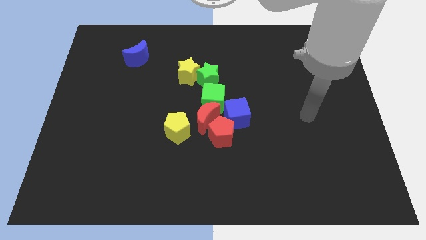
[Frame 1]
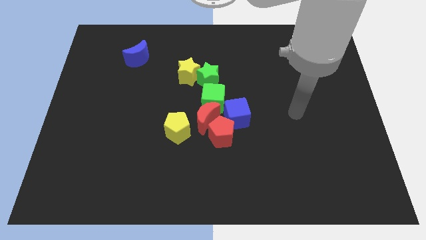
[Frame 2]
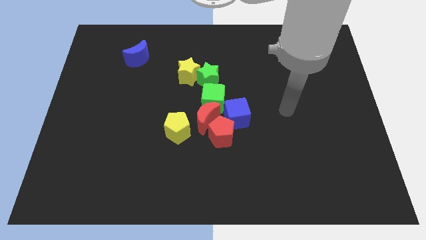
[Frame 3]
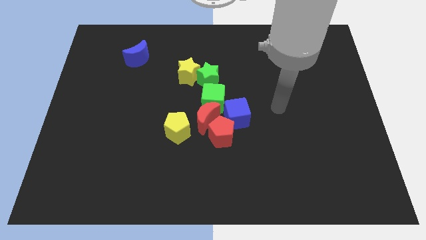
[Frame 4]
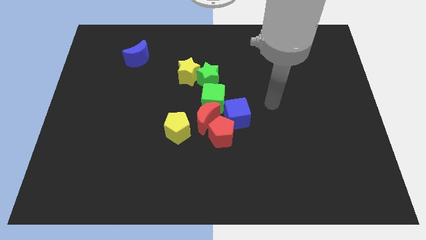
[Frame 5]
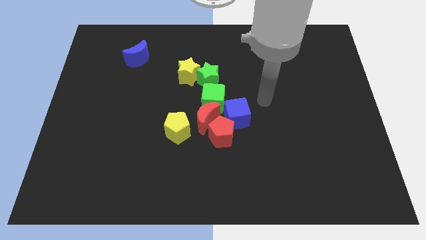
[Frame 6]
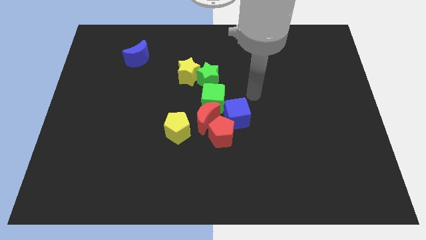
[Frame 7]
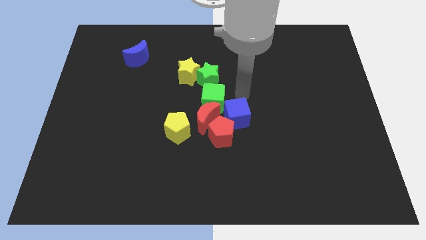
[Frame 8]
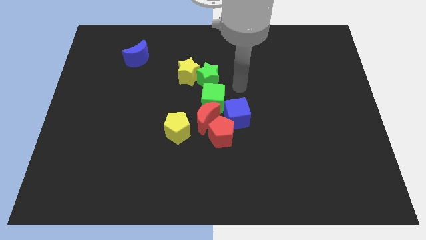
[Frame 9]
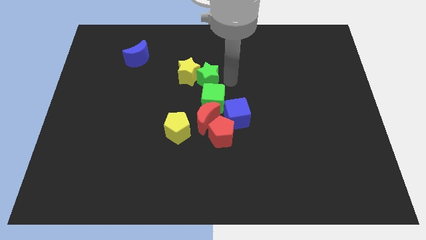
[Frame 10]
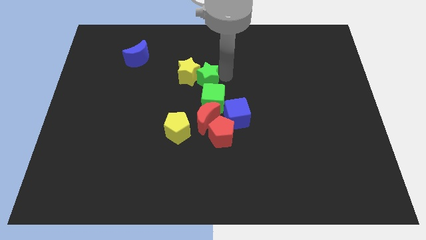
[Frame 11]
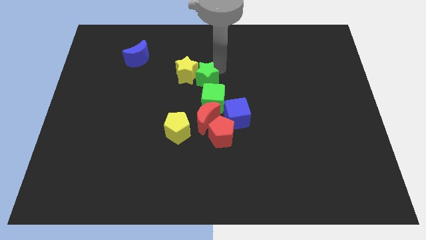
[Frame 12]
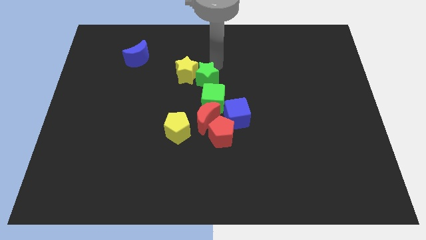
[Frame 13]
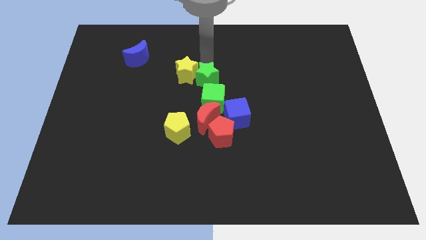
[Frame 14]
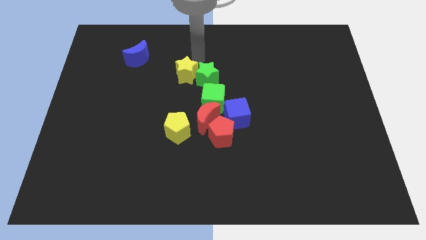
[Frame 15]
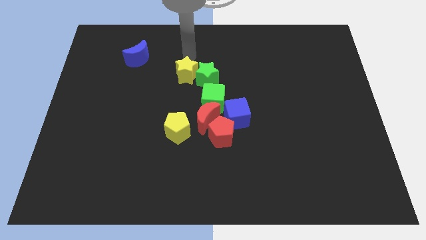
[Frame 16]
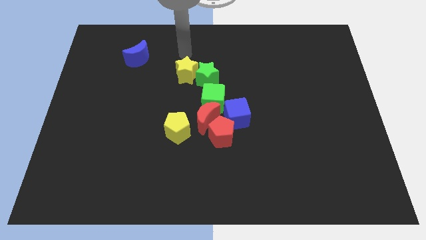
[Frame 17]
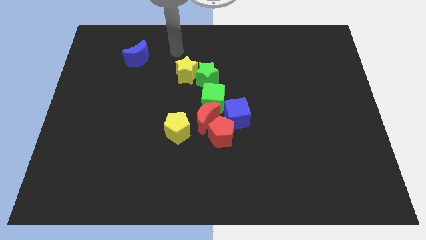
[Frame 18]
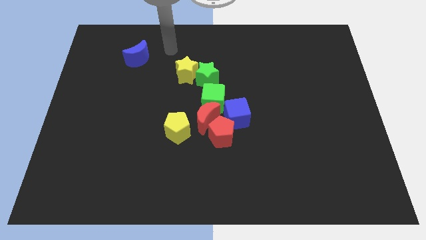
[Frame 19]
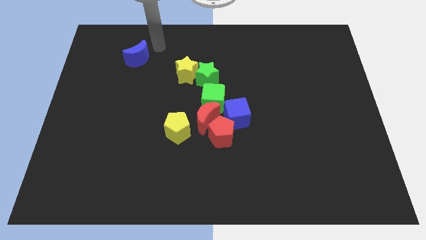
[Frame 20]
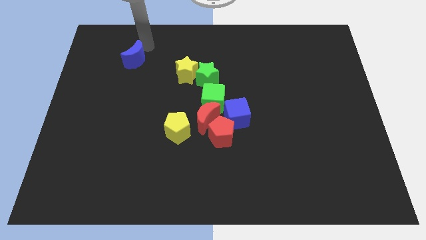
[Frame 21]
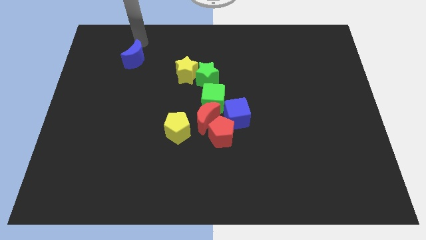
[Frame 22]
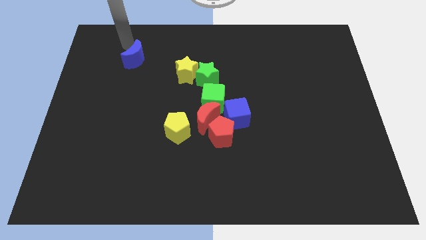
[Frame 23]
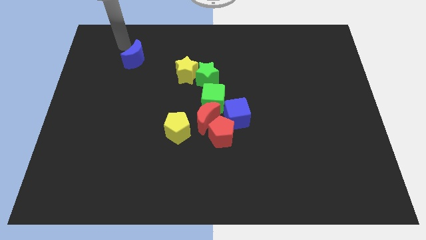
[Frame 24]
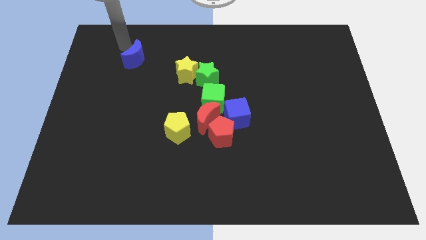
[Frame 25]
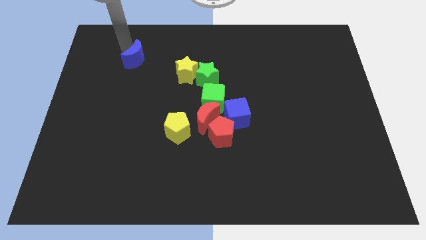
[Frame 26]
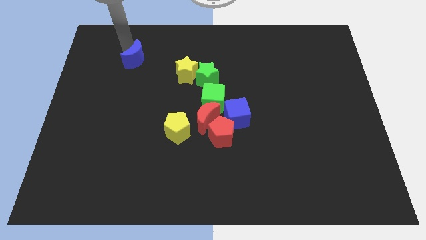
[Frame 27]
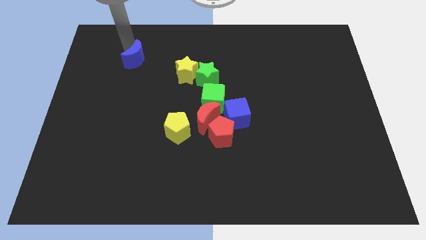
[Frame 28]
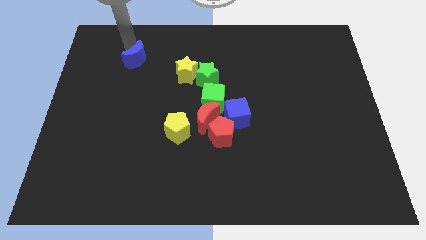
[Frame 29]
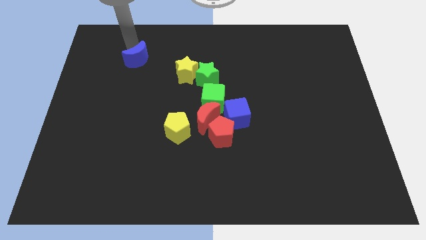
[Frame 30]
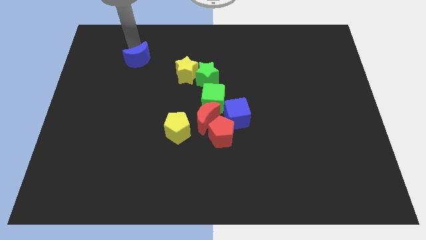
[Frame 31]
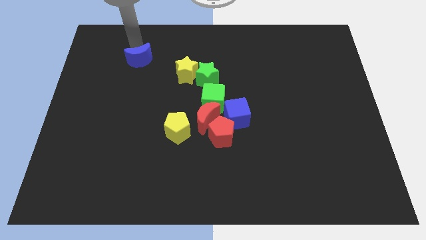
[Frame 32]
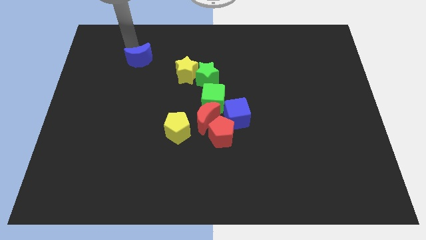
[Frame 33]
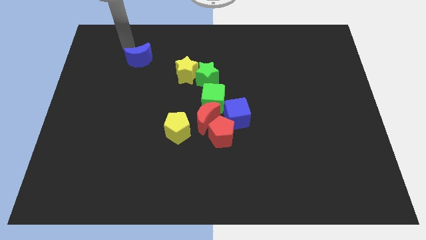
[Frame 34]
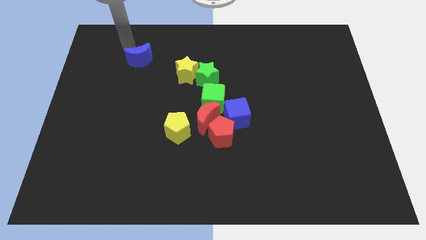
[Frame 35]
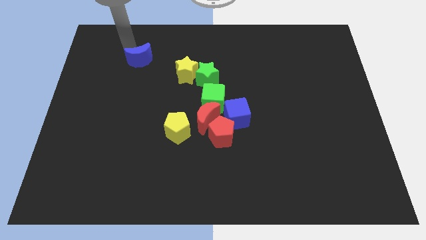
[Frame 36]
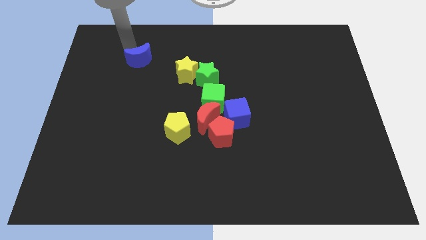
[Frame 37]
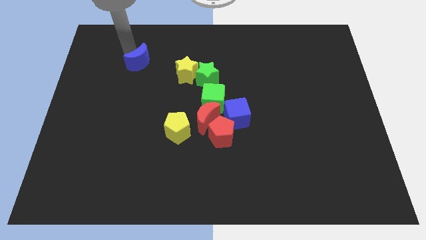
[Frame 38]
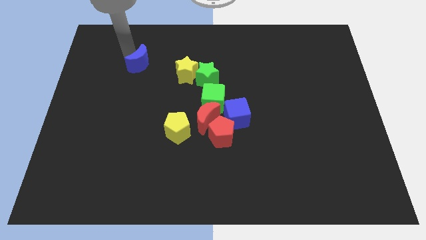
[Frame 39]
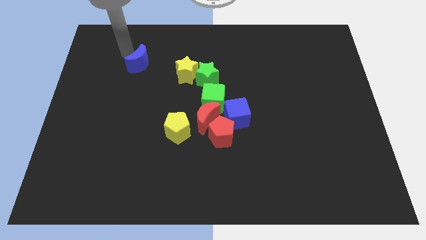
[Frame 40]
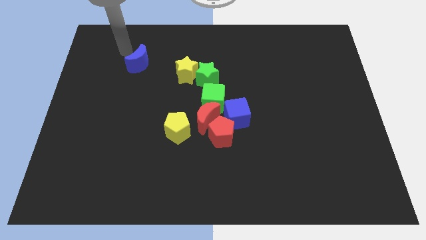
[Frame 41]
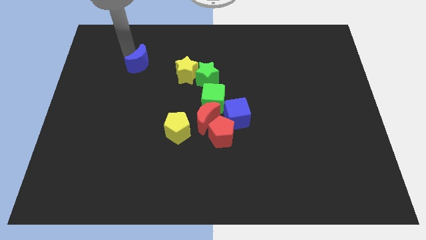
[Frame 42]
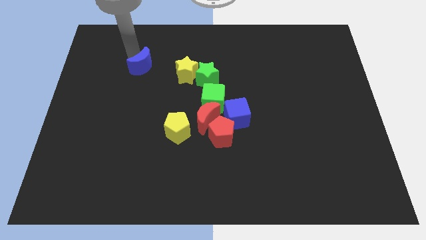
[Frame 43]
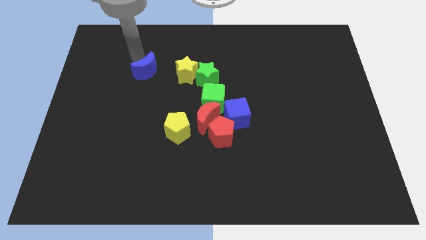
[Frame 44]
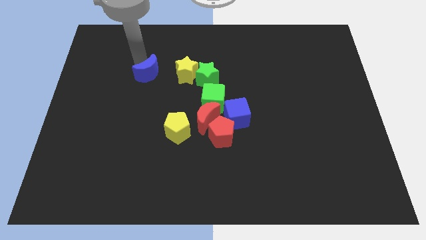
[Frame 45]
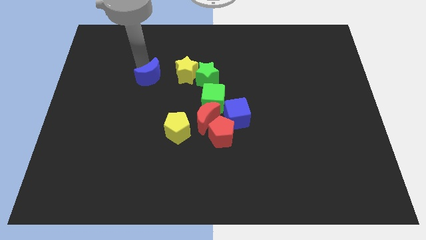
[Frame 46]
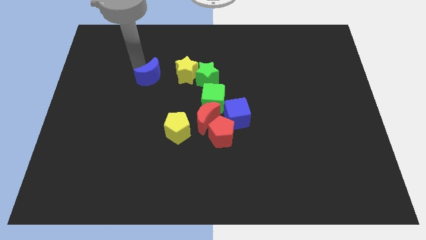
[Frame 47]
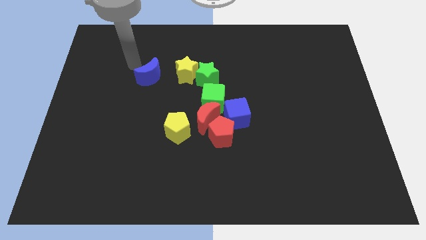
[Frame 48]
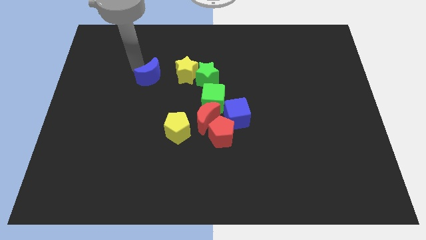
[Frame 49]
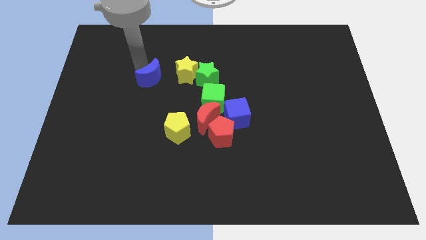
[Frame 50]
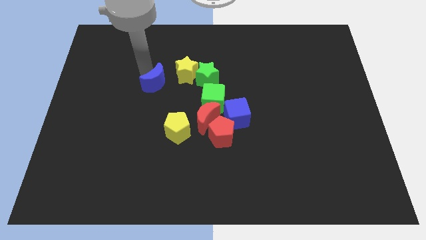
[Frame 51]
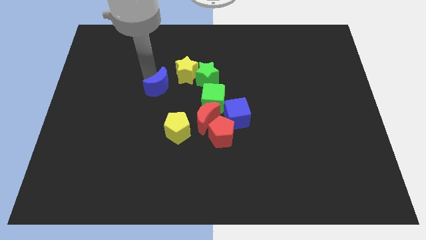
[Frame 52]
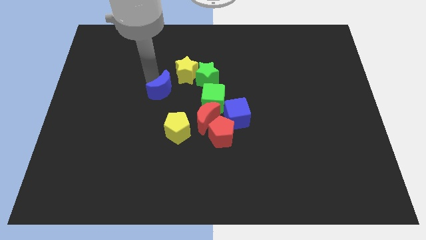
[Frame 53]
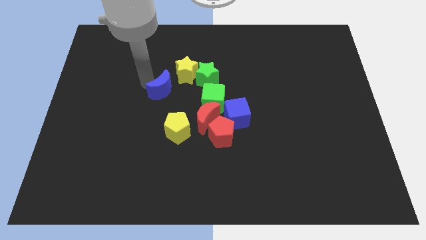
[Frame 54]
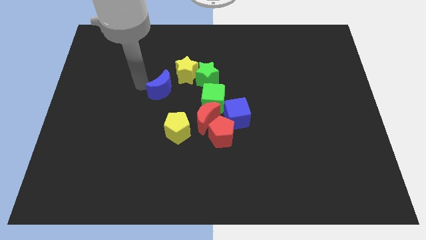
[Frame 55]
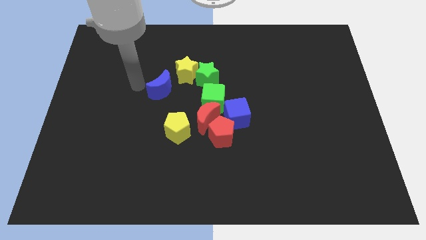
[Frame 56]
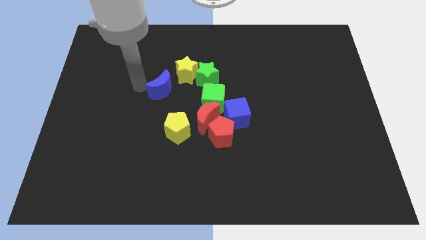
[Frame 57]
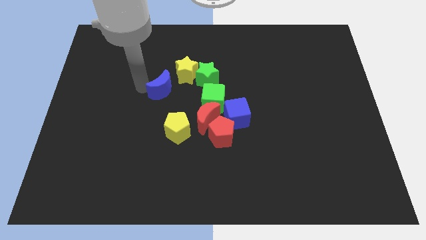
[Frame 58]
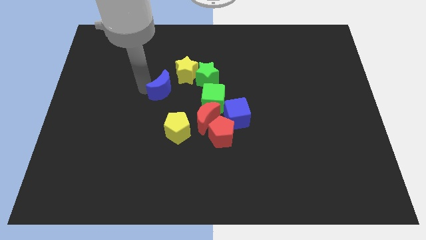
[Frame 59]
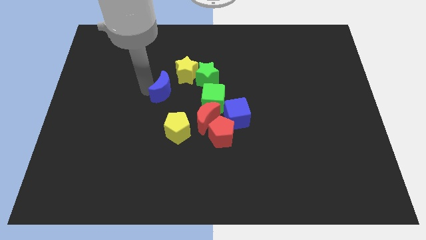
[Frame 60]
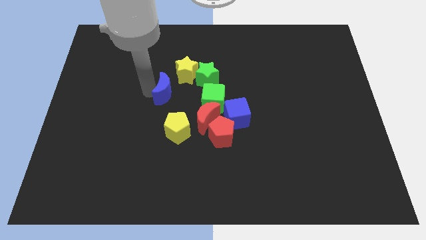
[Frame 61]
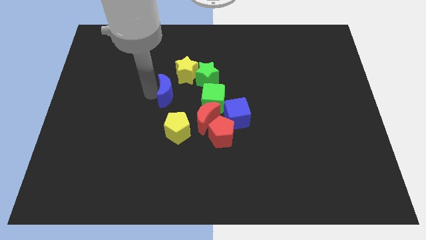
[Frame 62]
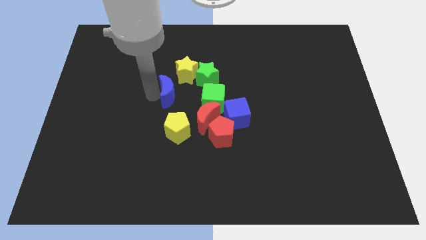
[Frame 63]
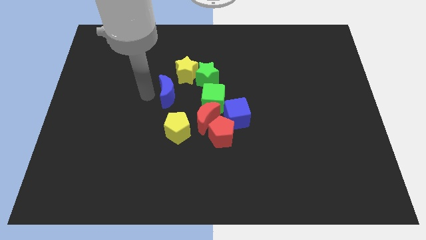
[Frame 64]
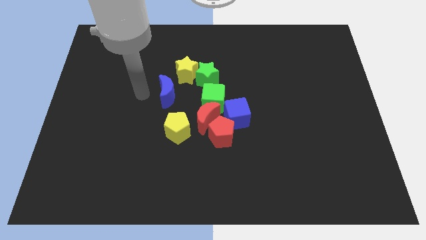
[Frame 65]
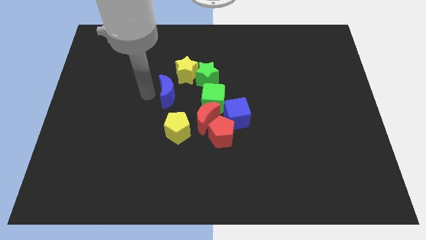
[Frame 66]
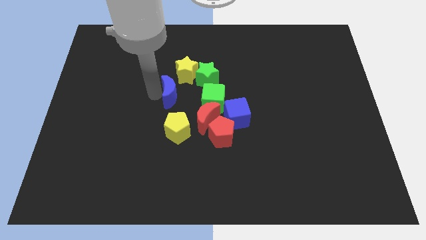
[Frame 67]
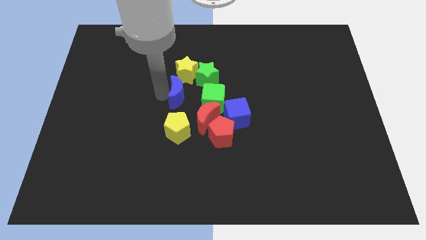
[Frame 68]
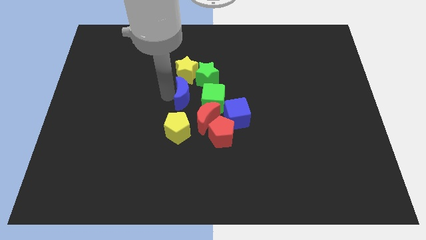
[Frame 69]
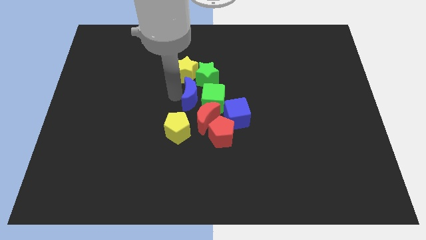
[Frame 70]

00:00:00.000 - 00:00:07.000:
put the blue moon towards the green cube
